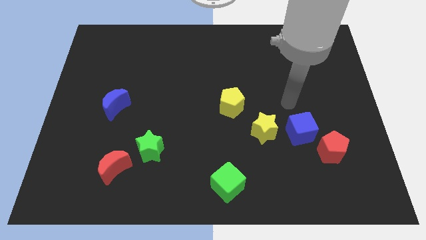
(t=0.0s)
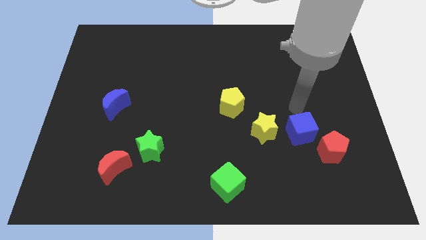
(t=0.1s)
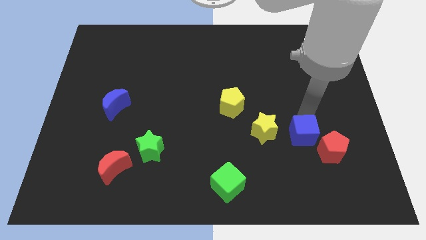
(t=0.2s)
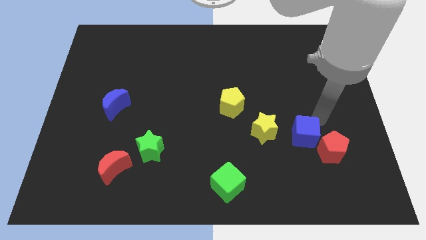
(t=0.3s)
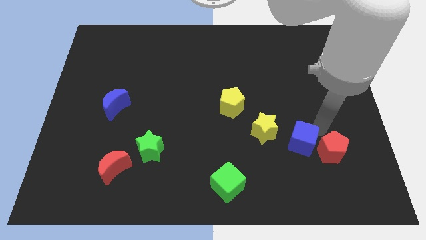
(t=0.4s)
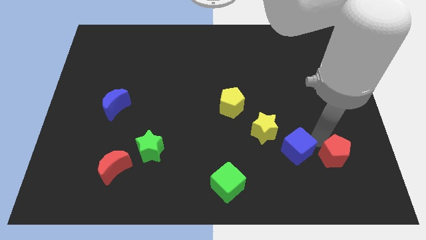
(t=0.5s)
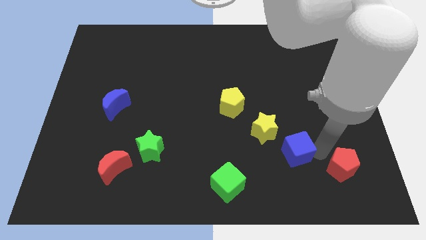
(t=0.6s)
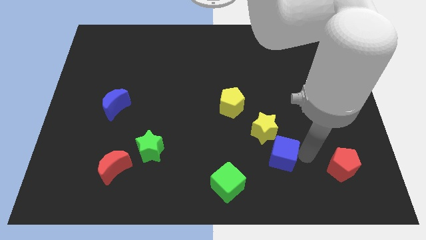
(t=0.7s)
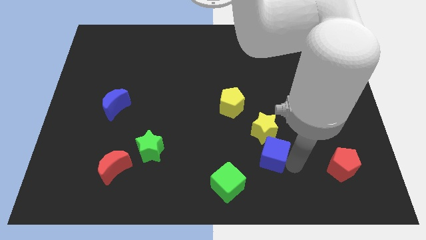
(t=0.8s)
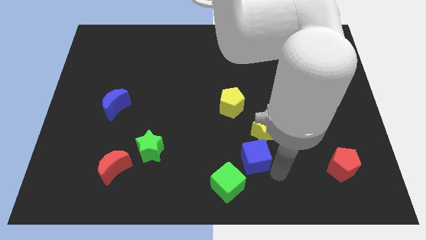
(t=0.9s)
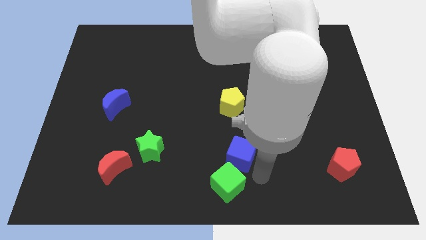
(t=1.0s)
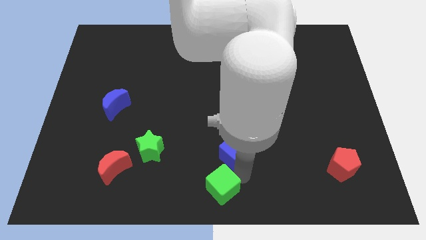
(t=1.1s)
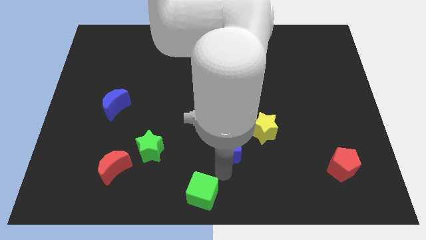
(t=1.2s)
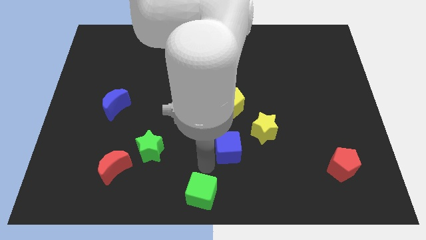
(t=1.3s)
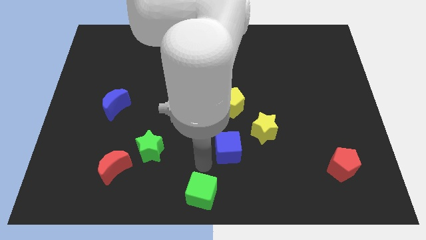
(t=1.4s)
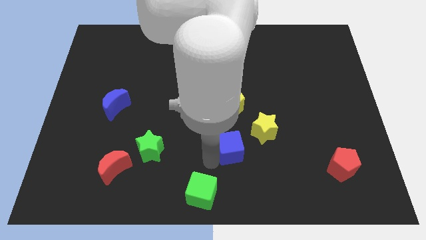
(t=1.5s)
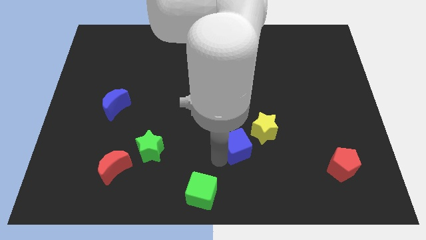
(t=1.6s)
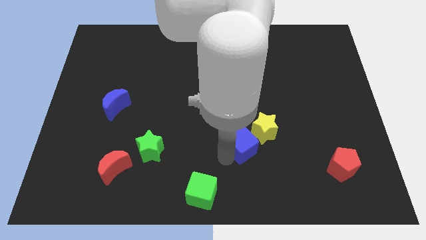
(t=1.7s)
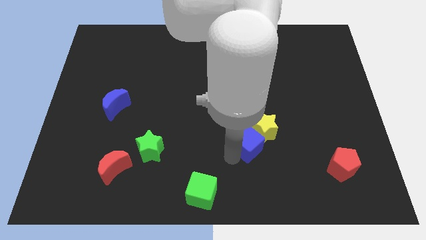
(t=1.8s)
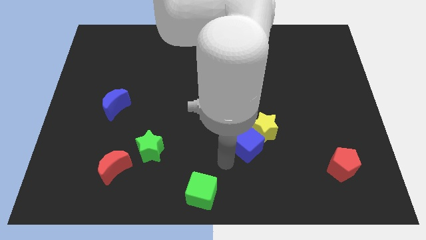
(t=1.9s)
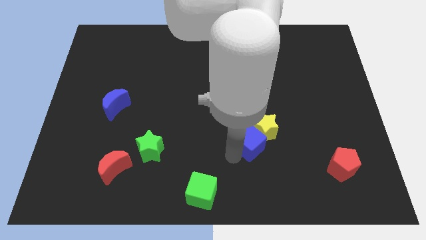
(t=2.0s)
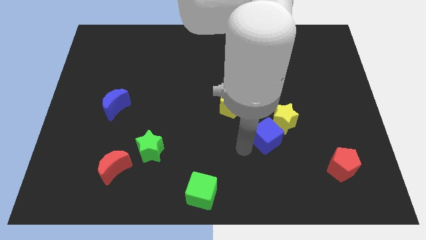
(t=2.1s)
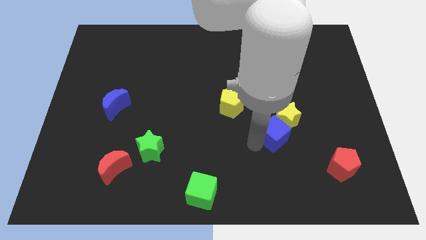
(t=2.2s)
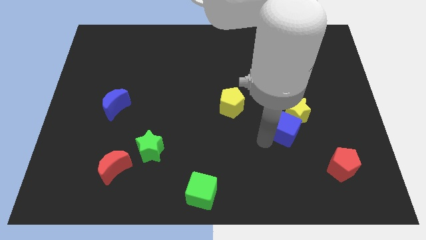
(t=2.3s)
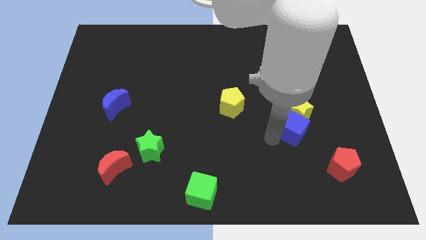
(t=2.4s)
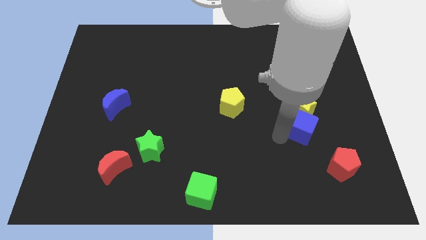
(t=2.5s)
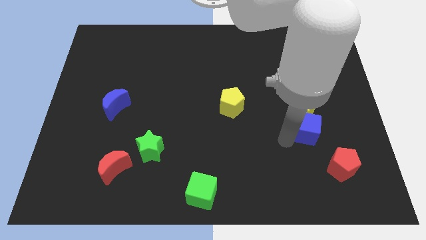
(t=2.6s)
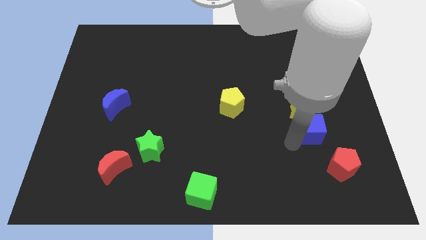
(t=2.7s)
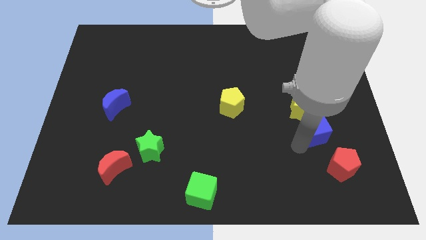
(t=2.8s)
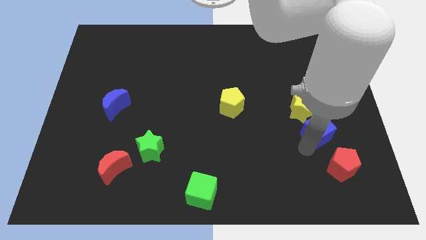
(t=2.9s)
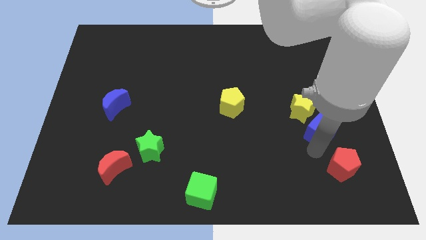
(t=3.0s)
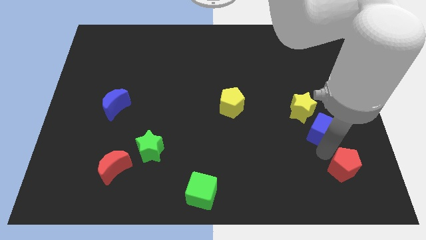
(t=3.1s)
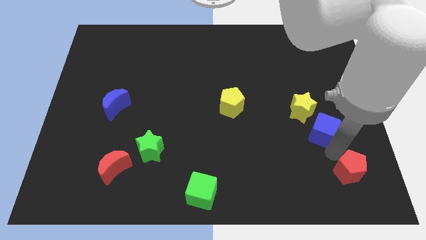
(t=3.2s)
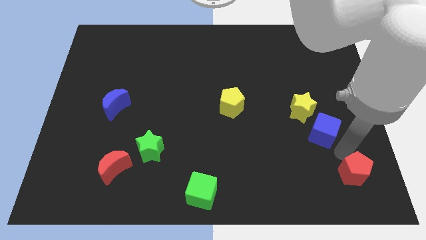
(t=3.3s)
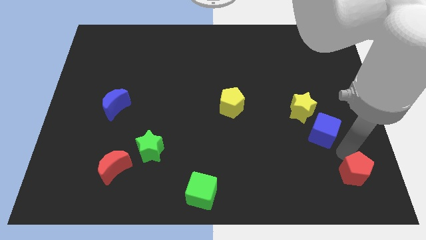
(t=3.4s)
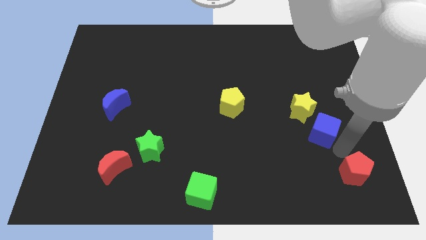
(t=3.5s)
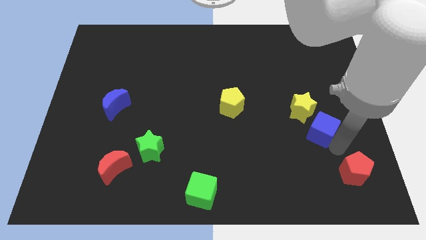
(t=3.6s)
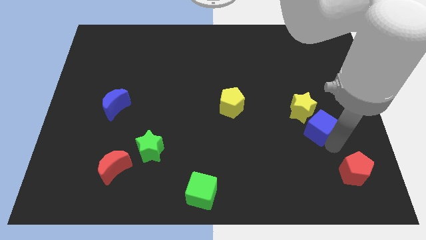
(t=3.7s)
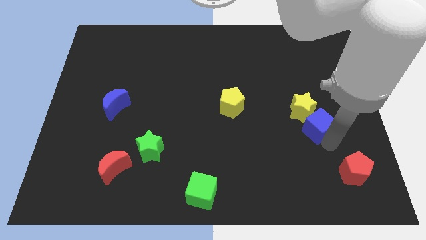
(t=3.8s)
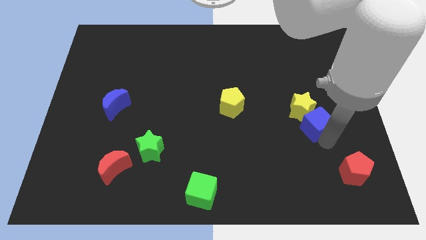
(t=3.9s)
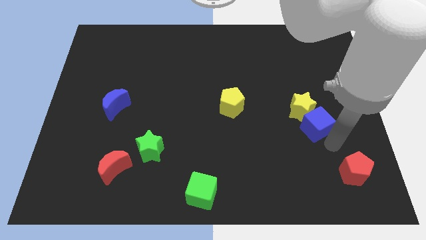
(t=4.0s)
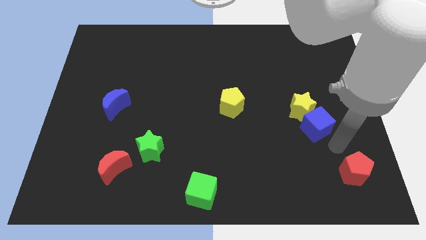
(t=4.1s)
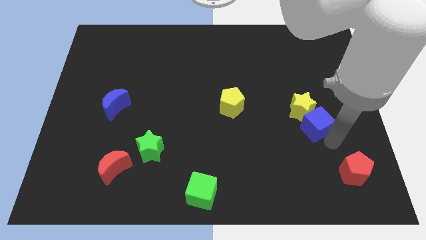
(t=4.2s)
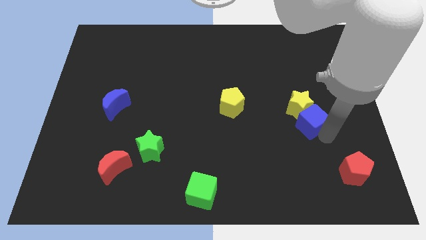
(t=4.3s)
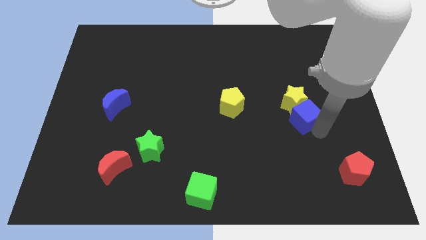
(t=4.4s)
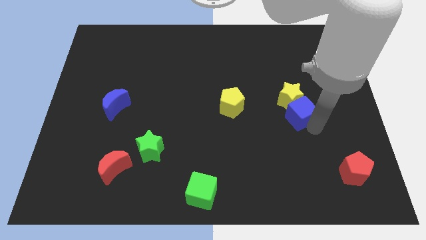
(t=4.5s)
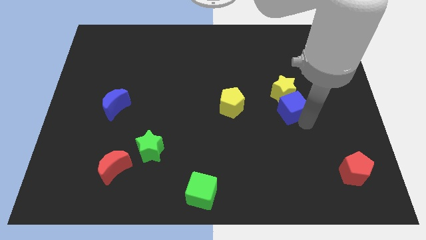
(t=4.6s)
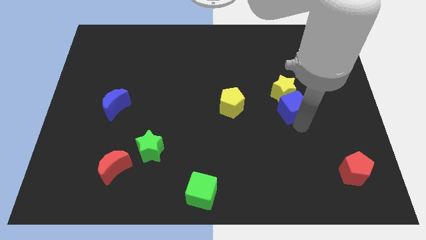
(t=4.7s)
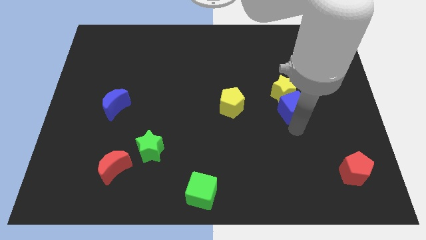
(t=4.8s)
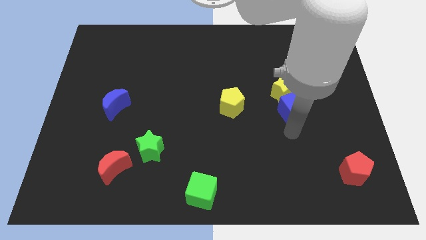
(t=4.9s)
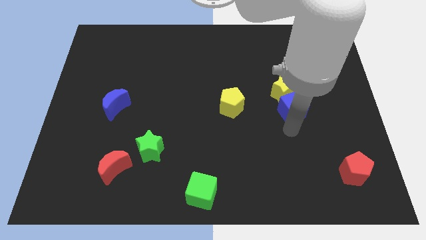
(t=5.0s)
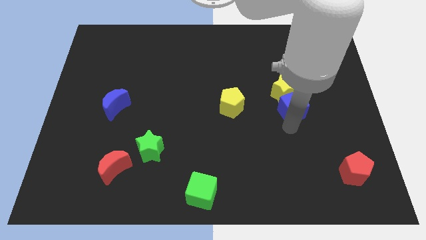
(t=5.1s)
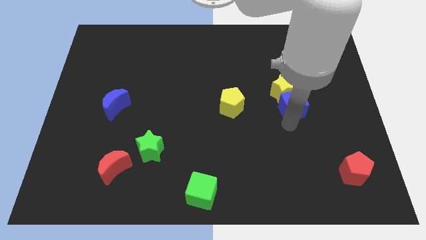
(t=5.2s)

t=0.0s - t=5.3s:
slide the blue cube up somewhat

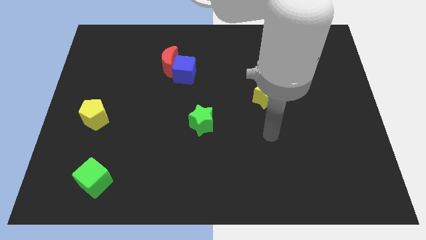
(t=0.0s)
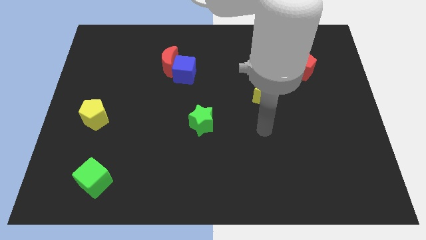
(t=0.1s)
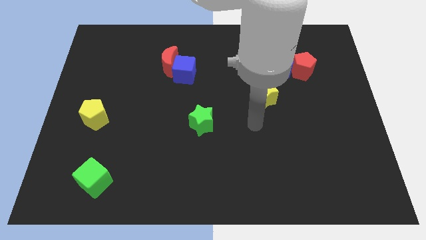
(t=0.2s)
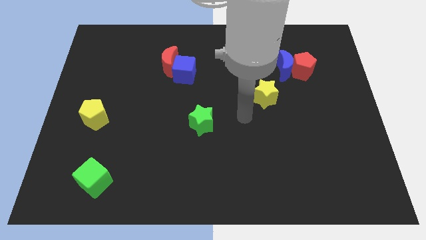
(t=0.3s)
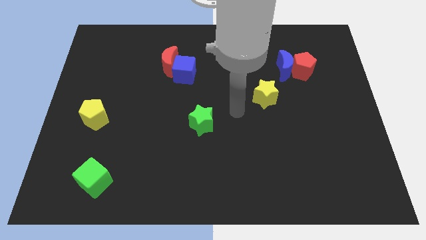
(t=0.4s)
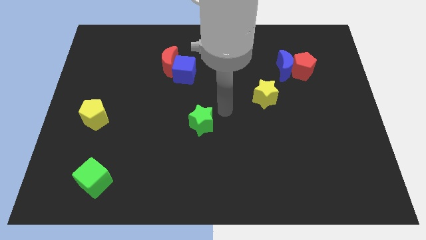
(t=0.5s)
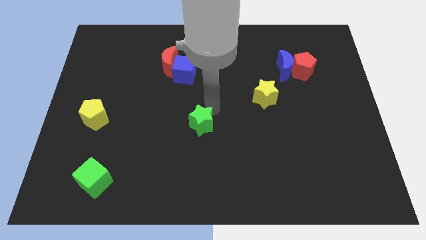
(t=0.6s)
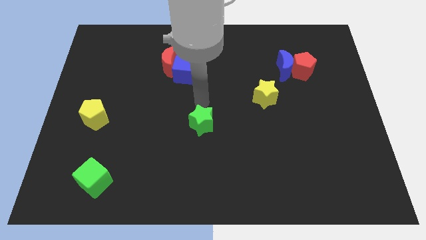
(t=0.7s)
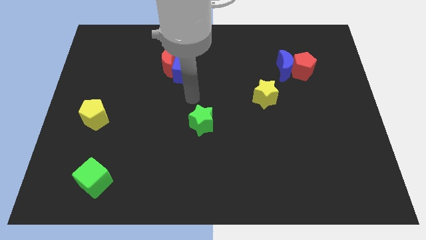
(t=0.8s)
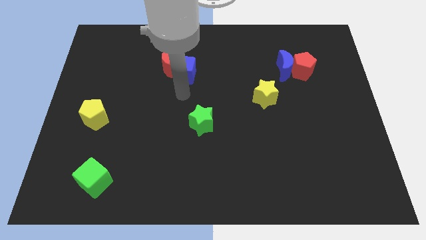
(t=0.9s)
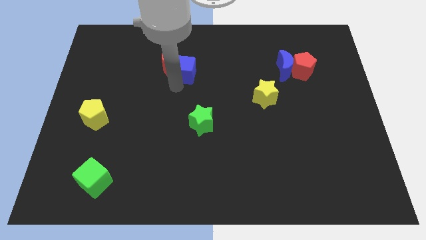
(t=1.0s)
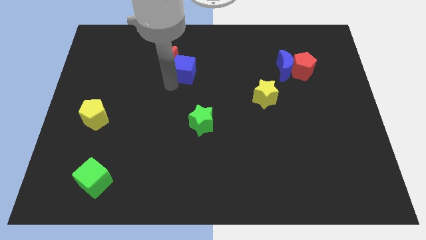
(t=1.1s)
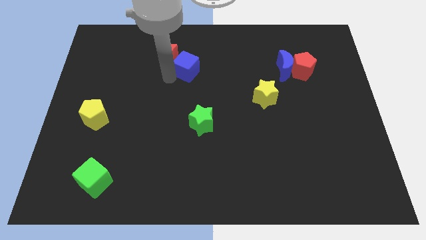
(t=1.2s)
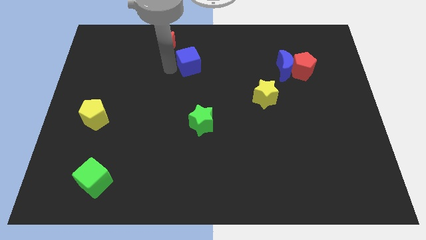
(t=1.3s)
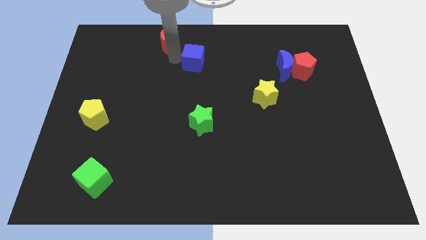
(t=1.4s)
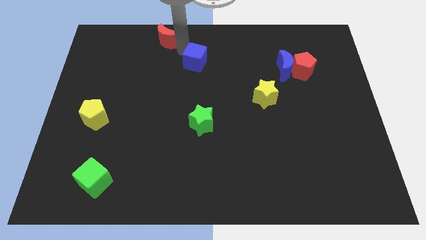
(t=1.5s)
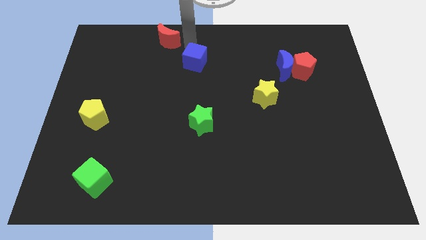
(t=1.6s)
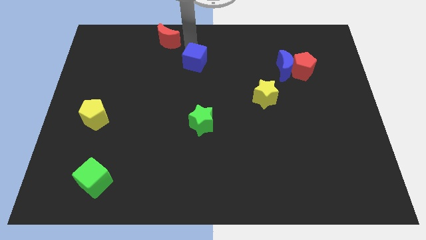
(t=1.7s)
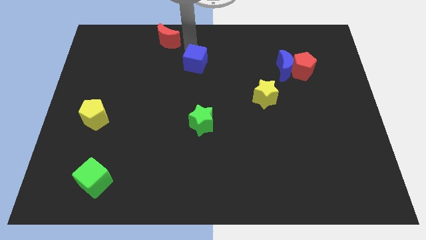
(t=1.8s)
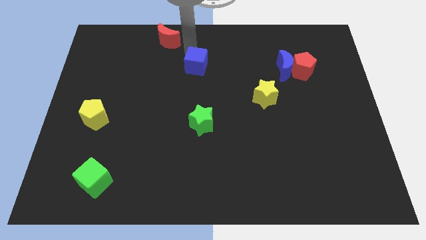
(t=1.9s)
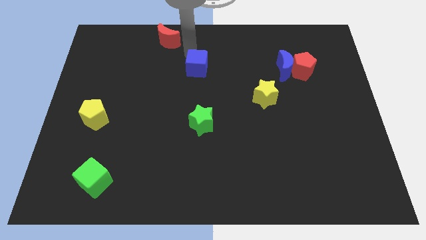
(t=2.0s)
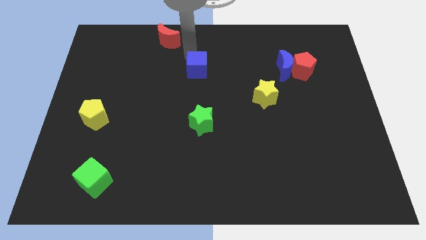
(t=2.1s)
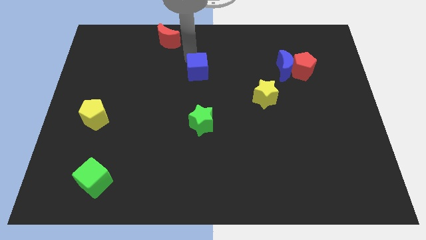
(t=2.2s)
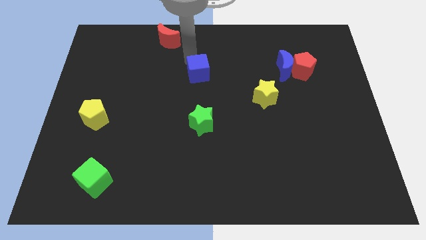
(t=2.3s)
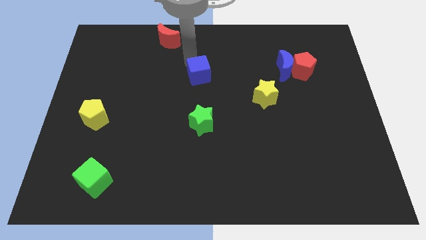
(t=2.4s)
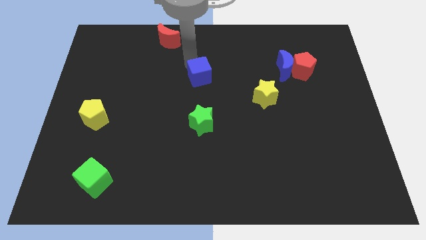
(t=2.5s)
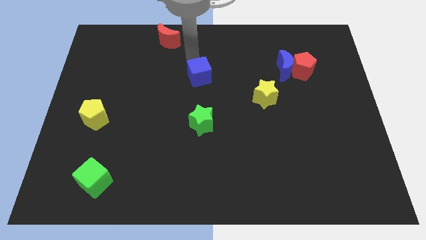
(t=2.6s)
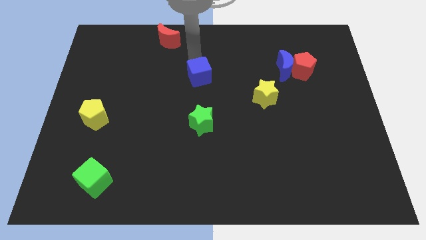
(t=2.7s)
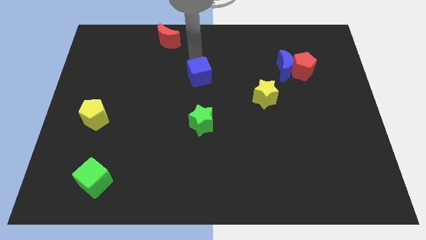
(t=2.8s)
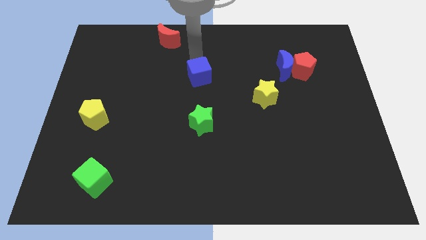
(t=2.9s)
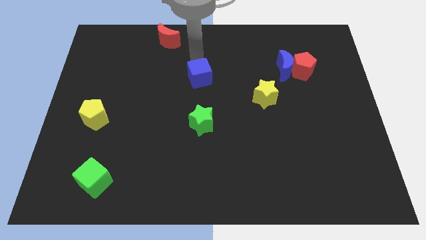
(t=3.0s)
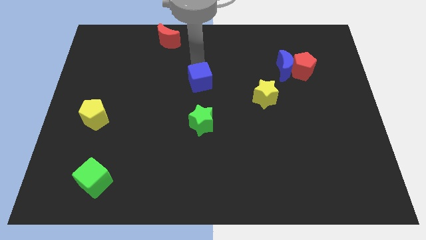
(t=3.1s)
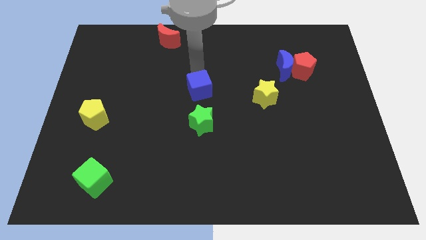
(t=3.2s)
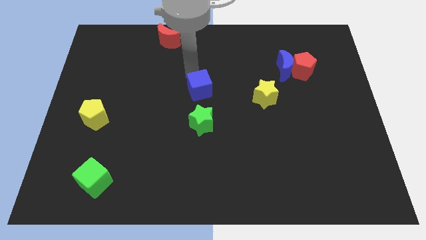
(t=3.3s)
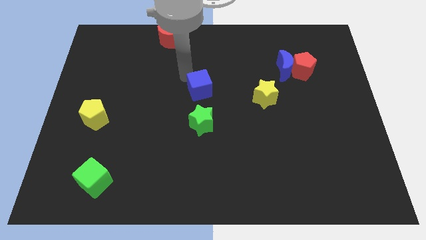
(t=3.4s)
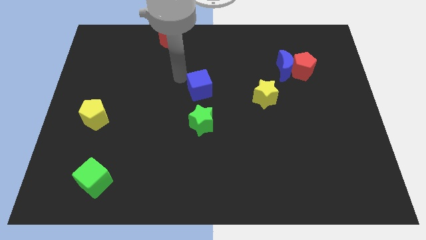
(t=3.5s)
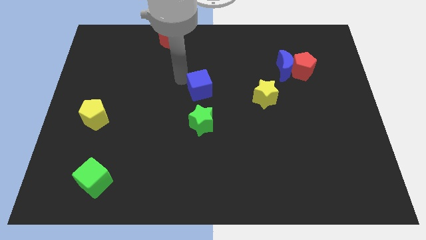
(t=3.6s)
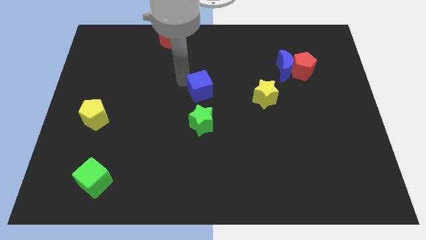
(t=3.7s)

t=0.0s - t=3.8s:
push the blue cube slightly downwards and then to the right
